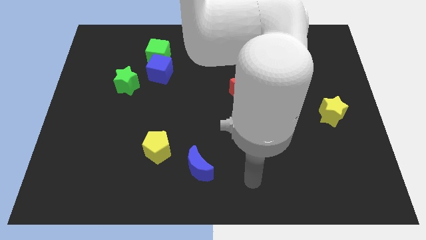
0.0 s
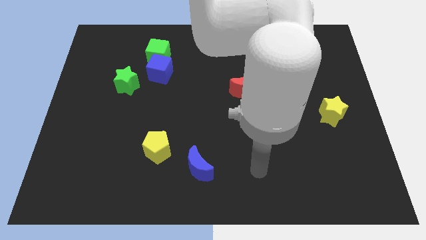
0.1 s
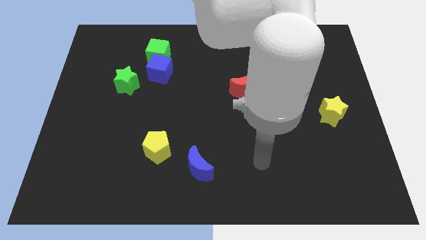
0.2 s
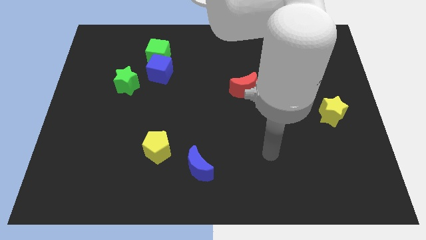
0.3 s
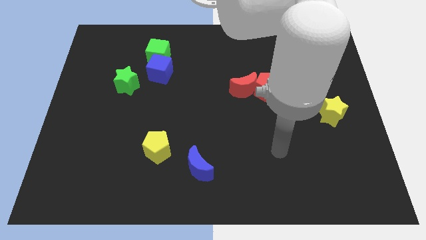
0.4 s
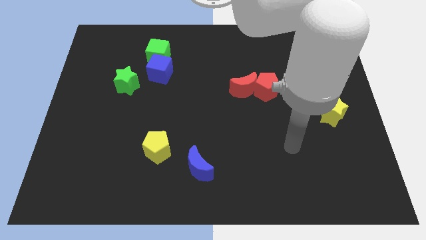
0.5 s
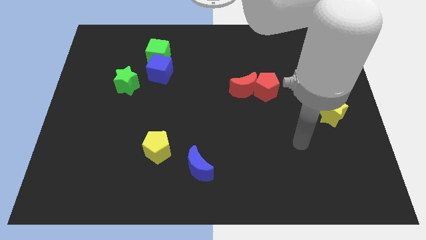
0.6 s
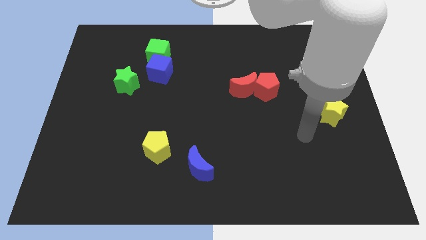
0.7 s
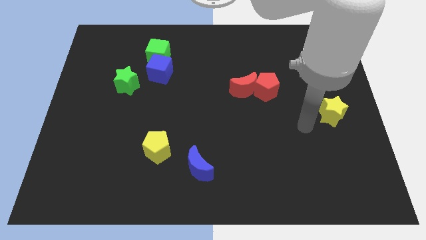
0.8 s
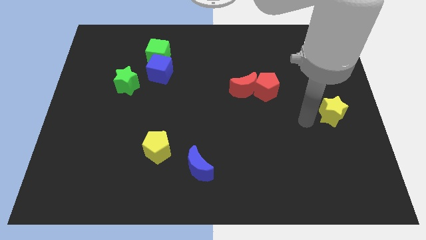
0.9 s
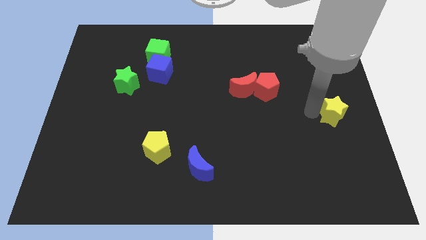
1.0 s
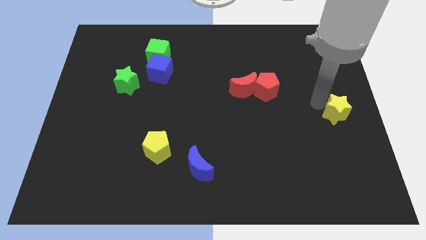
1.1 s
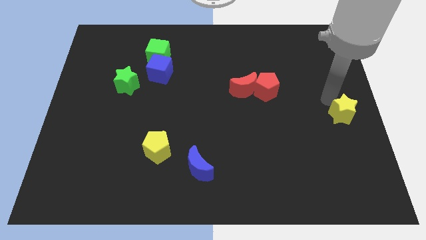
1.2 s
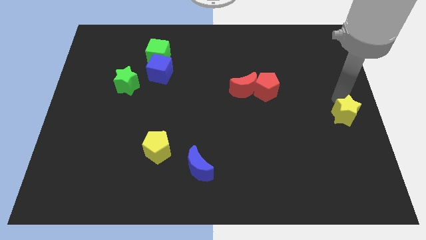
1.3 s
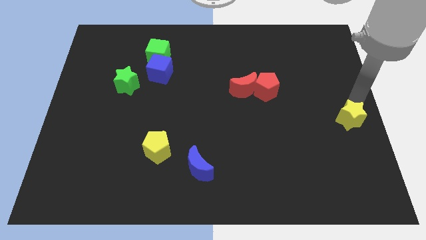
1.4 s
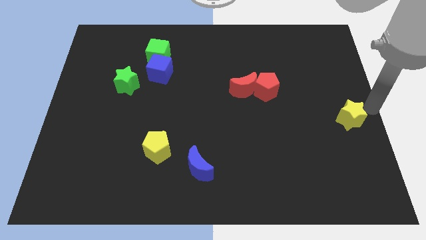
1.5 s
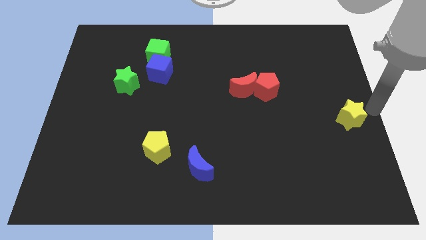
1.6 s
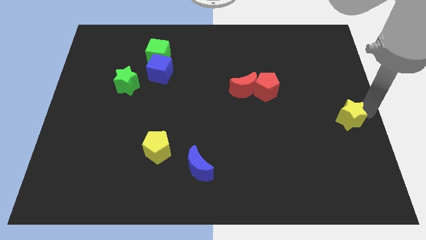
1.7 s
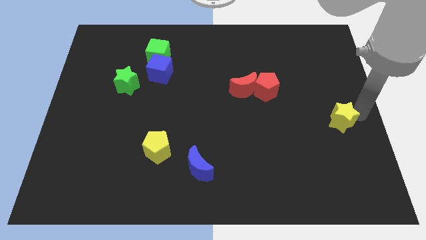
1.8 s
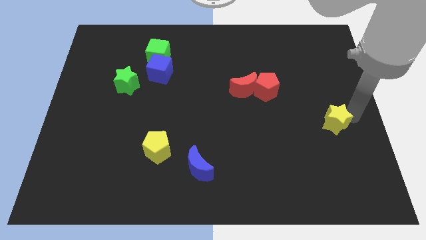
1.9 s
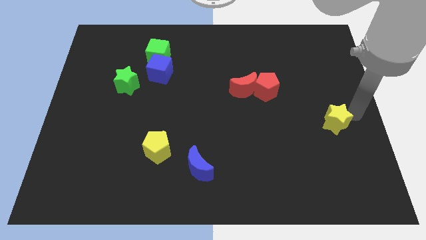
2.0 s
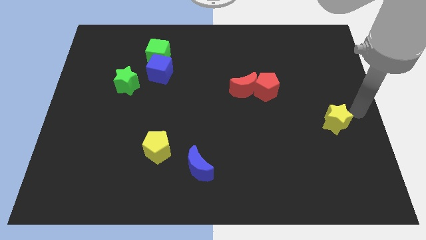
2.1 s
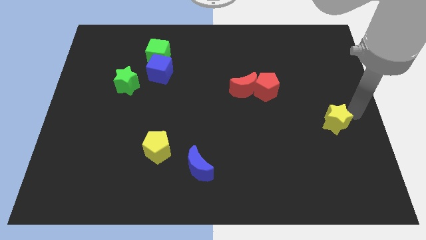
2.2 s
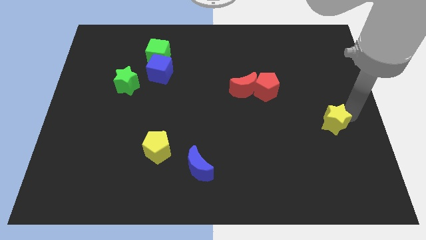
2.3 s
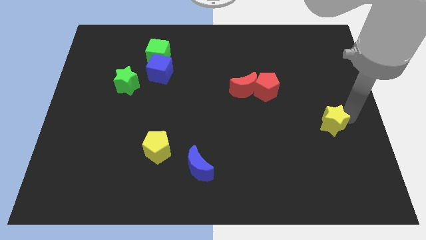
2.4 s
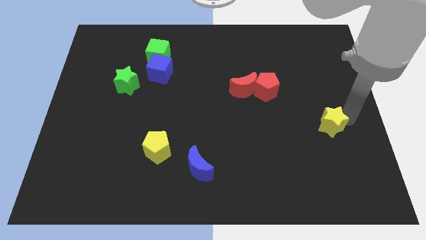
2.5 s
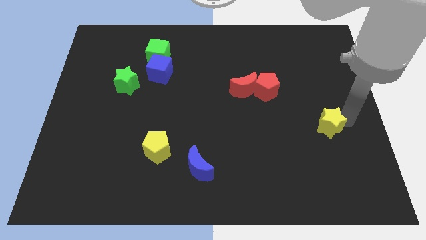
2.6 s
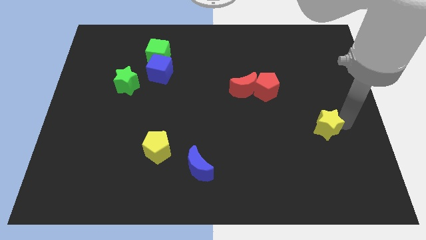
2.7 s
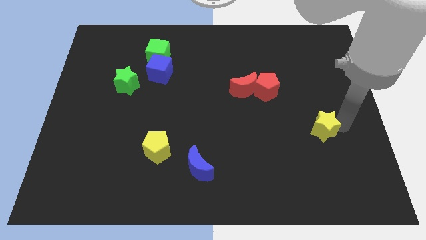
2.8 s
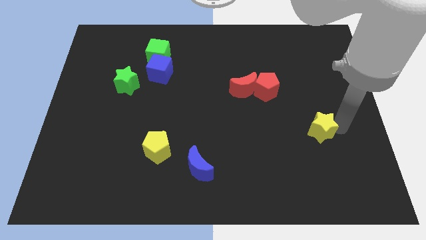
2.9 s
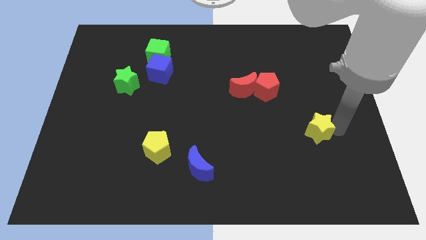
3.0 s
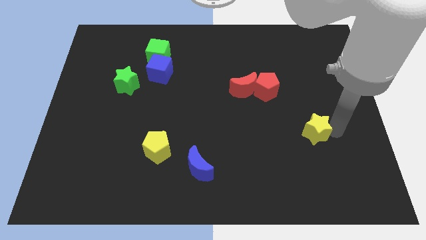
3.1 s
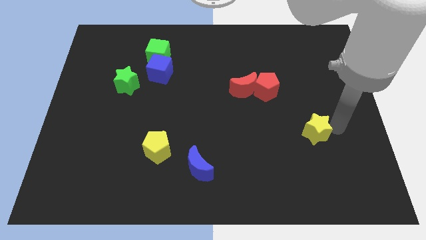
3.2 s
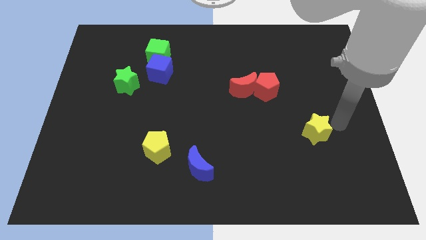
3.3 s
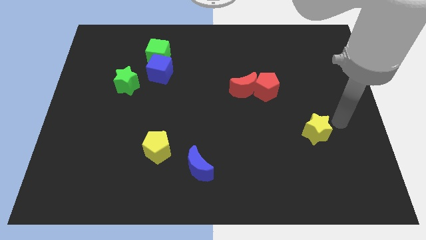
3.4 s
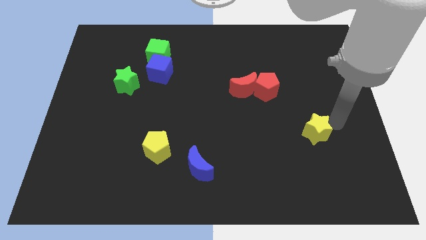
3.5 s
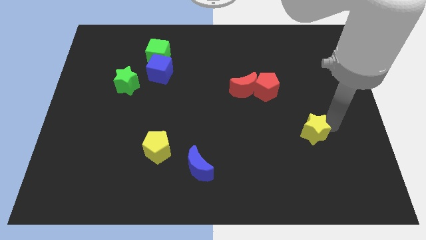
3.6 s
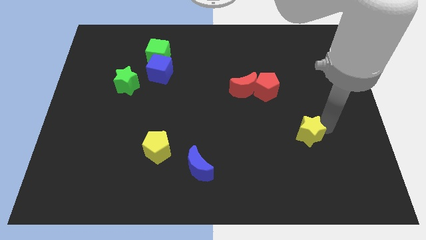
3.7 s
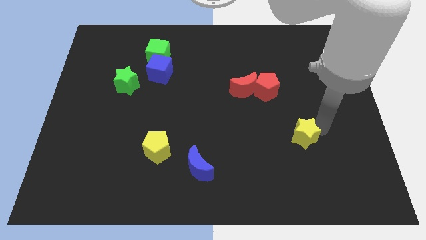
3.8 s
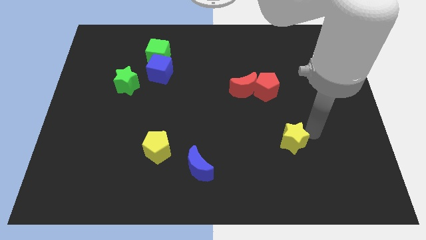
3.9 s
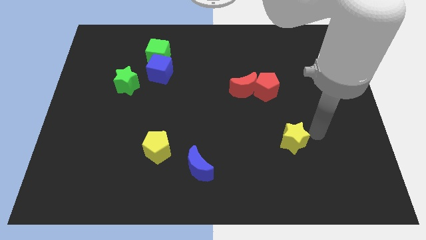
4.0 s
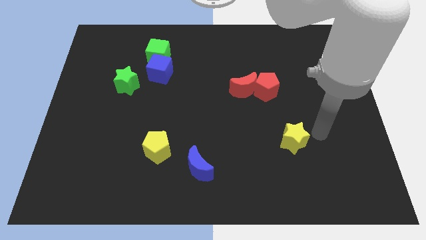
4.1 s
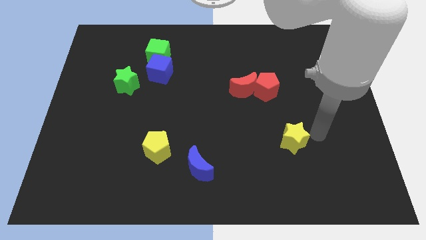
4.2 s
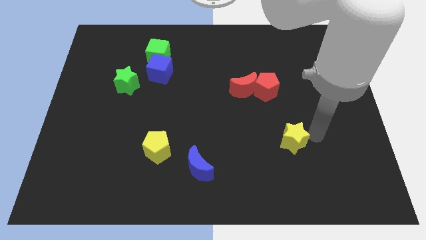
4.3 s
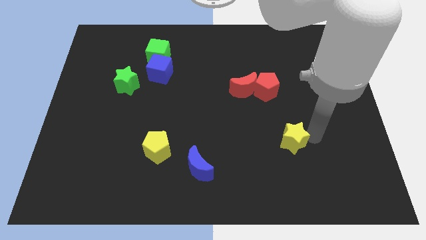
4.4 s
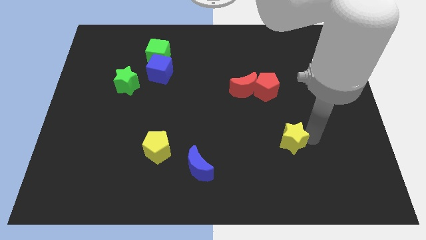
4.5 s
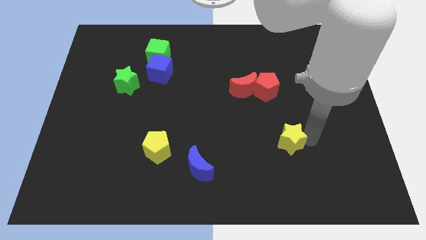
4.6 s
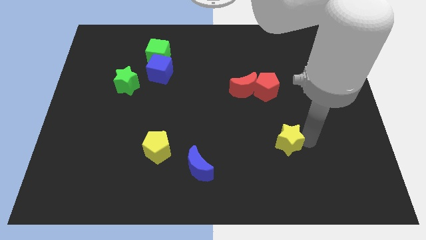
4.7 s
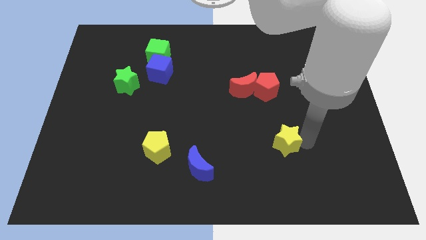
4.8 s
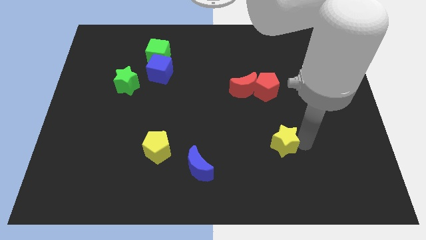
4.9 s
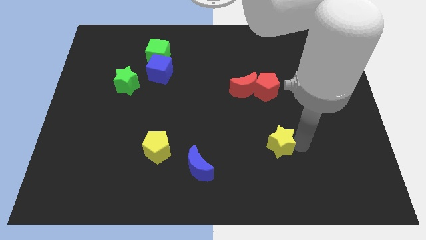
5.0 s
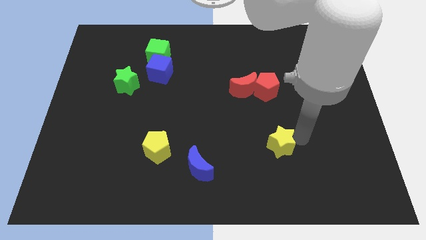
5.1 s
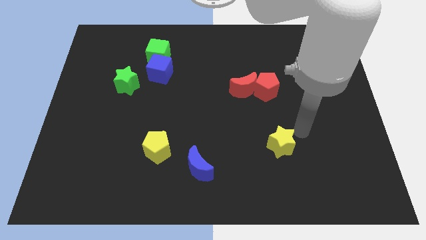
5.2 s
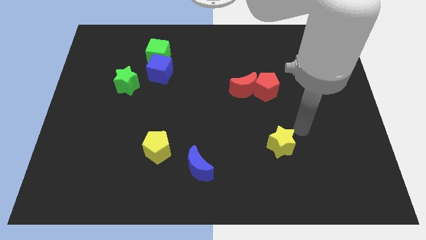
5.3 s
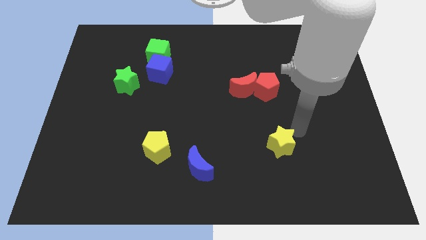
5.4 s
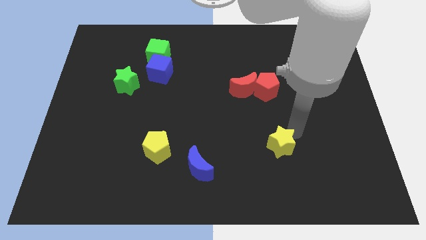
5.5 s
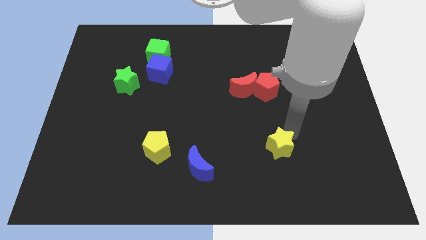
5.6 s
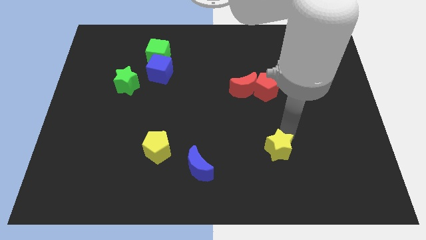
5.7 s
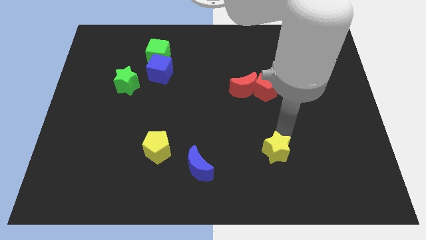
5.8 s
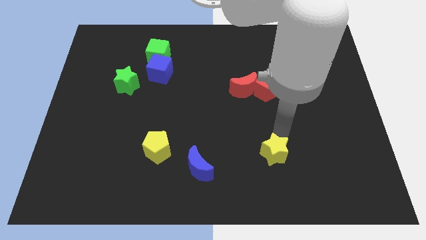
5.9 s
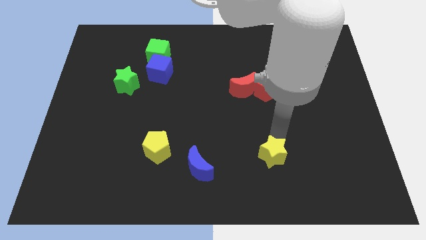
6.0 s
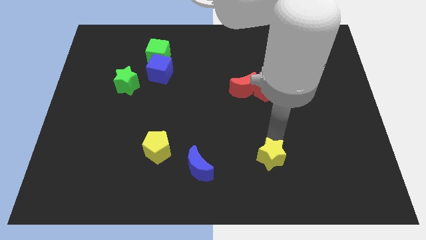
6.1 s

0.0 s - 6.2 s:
put the yellow star just right of the blue moon

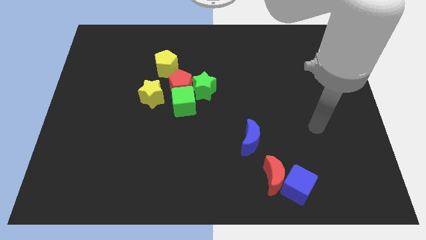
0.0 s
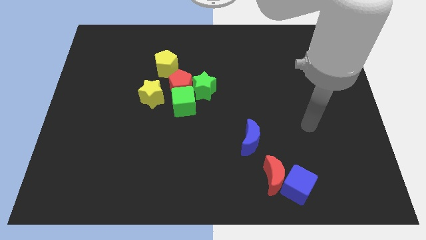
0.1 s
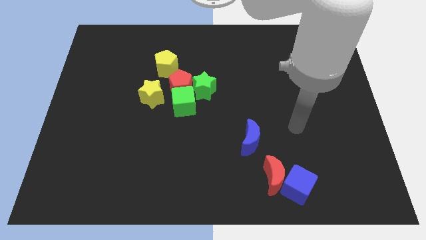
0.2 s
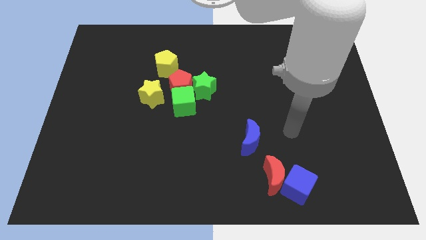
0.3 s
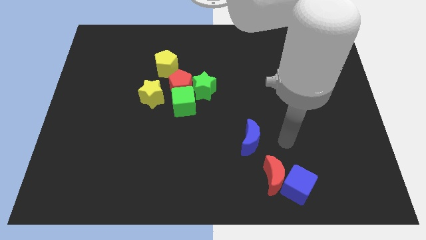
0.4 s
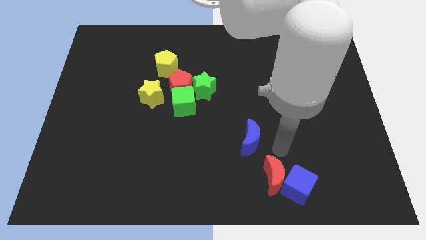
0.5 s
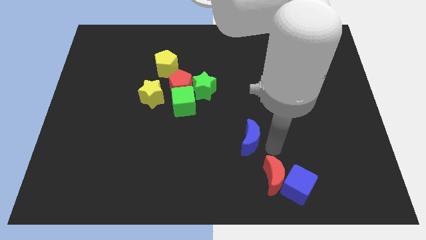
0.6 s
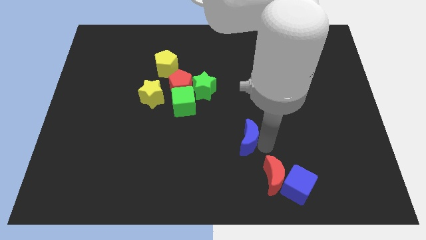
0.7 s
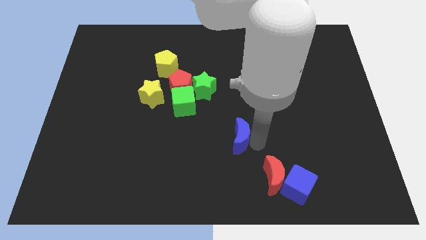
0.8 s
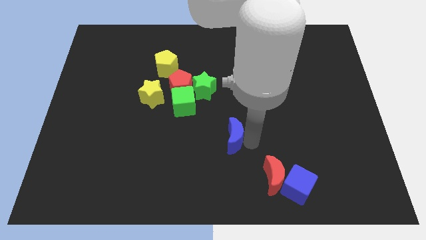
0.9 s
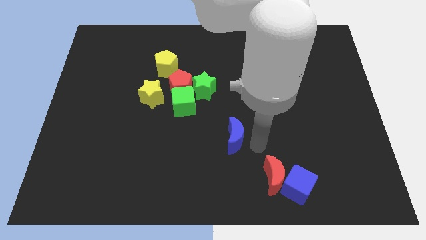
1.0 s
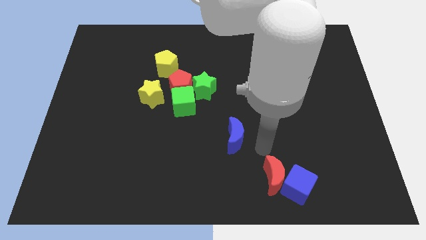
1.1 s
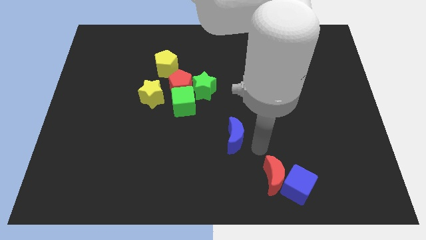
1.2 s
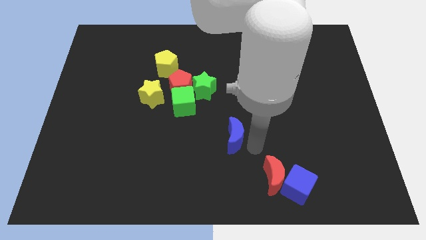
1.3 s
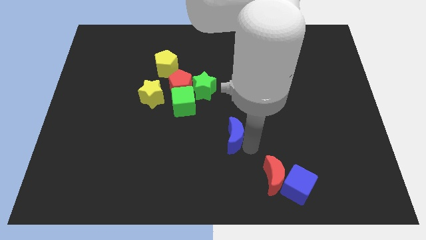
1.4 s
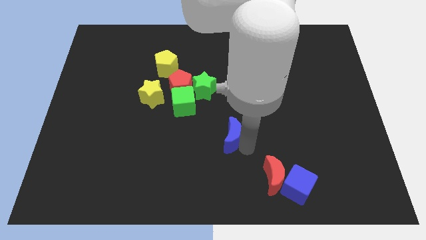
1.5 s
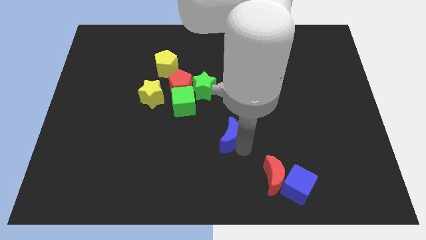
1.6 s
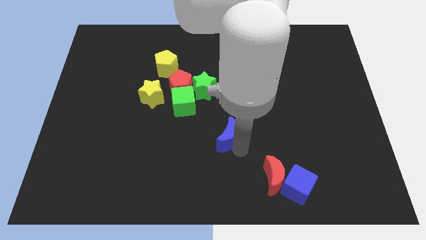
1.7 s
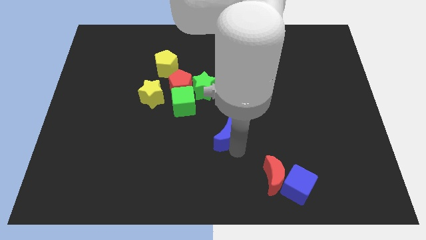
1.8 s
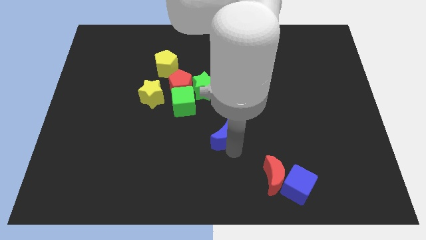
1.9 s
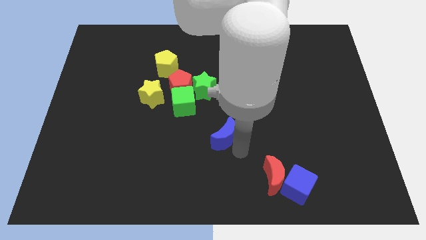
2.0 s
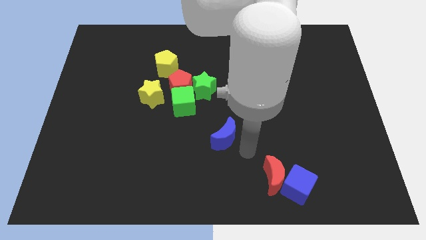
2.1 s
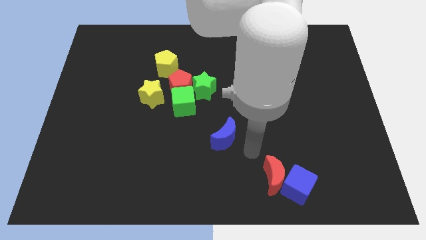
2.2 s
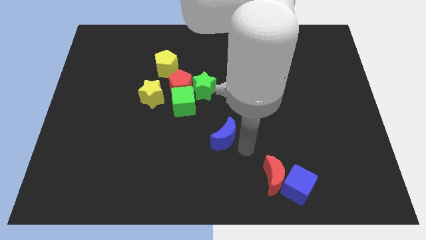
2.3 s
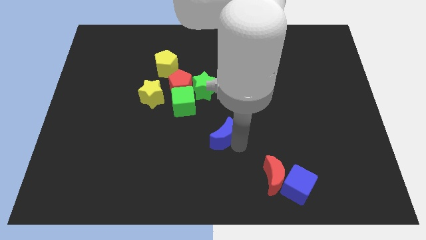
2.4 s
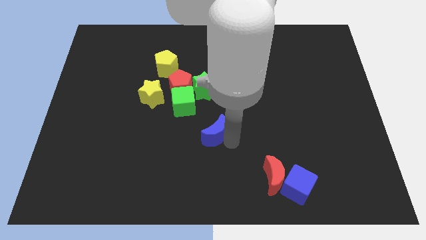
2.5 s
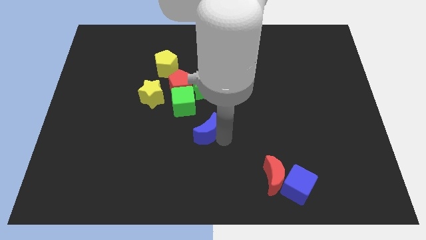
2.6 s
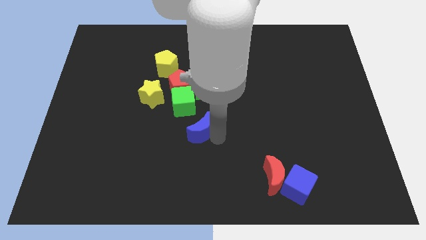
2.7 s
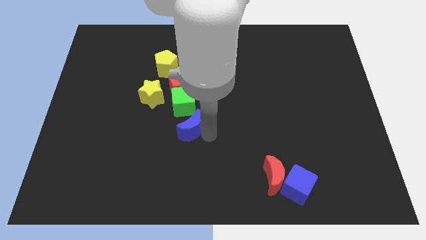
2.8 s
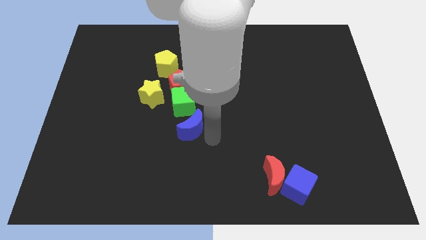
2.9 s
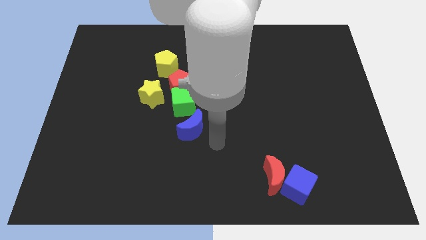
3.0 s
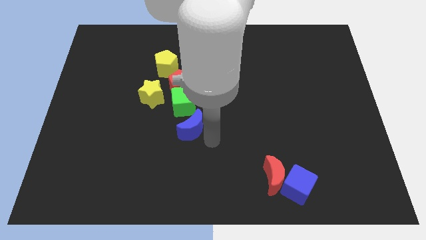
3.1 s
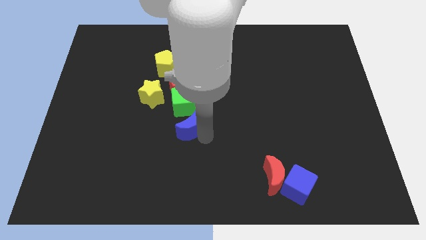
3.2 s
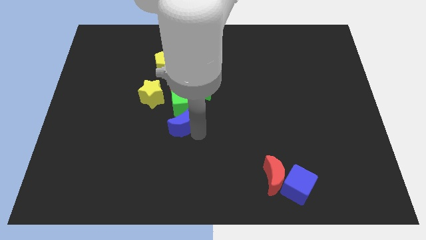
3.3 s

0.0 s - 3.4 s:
push the blue moon diagonally down and to the left of the green star
